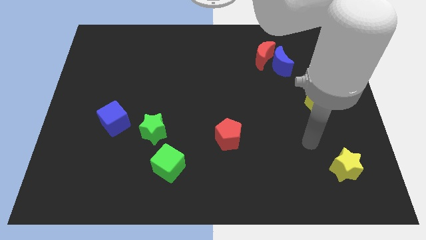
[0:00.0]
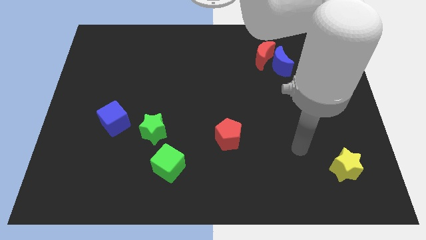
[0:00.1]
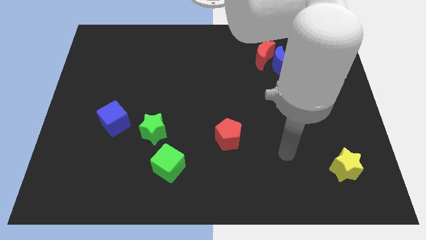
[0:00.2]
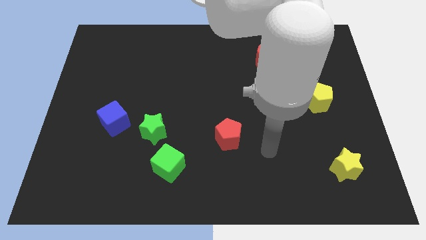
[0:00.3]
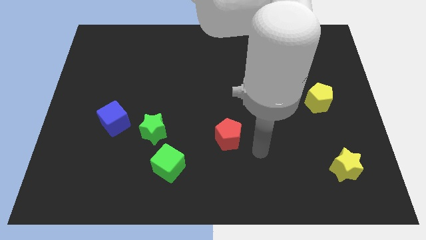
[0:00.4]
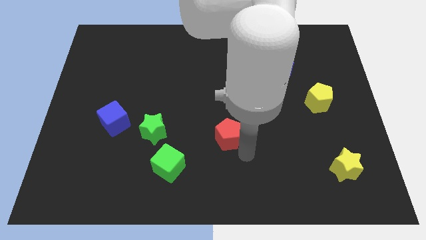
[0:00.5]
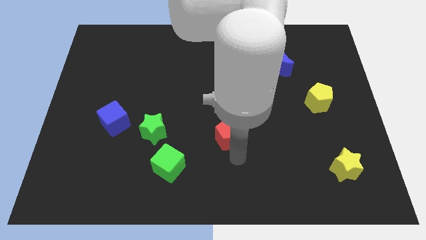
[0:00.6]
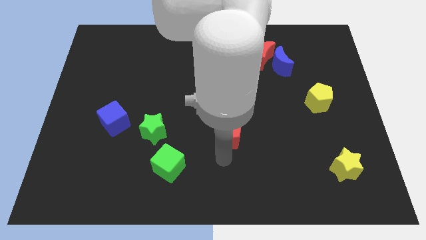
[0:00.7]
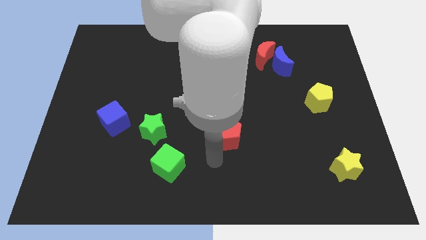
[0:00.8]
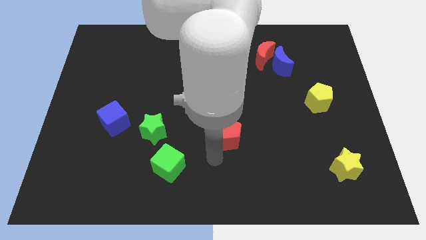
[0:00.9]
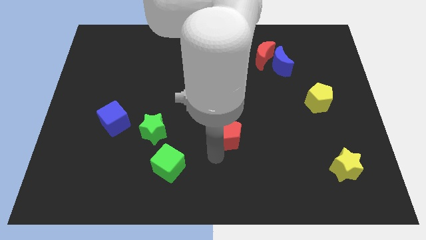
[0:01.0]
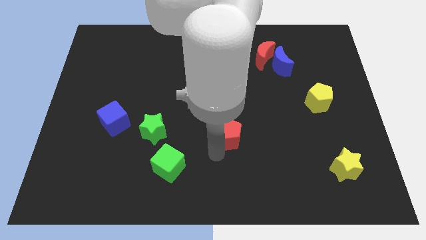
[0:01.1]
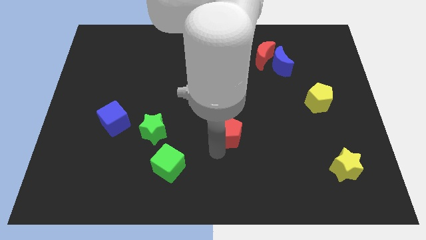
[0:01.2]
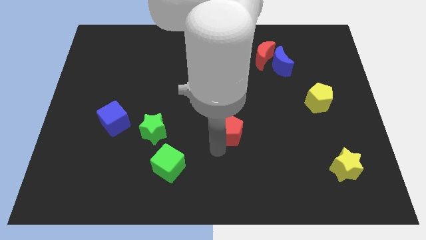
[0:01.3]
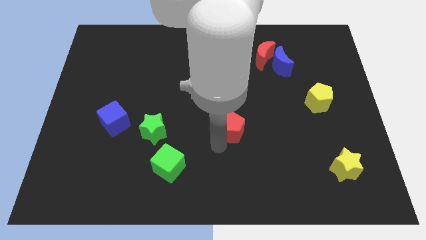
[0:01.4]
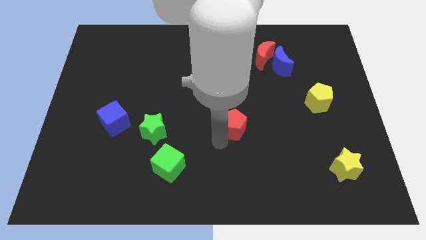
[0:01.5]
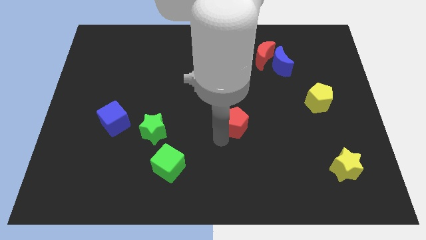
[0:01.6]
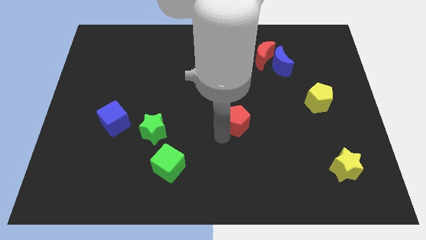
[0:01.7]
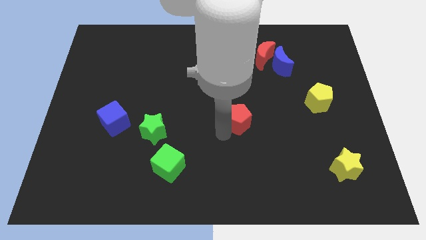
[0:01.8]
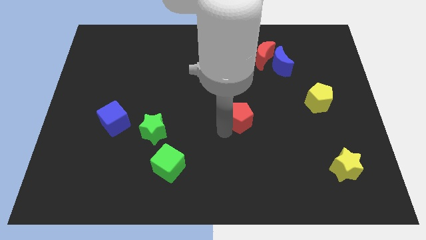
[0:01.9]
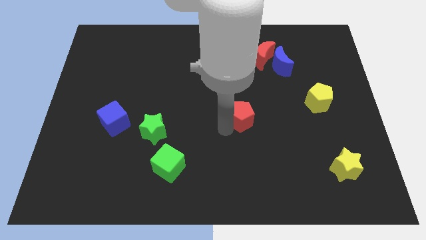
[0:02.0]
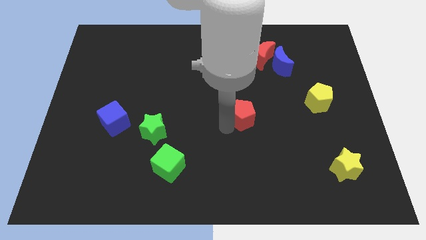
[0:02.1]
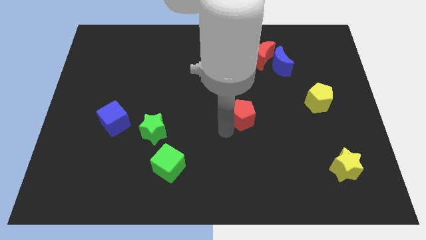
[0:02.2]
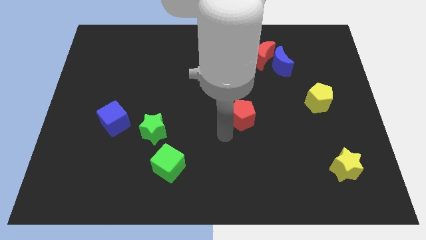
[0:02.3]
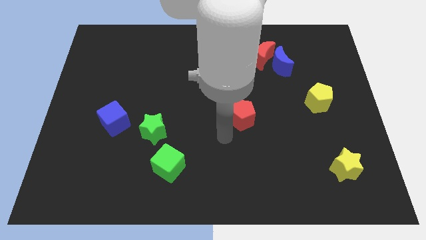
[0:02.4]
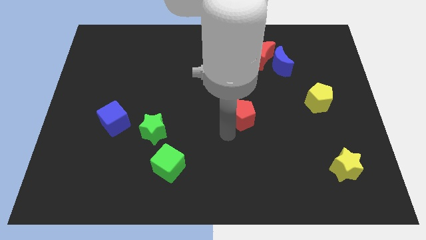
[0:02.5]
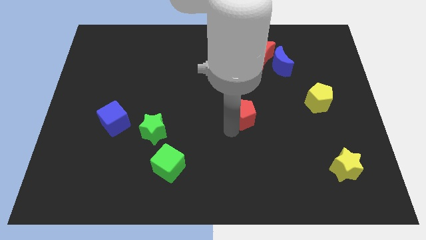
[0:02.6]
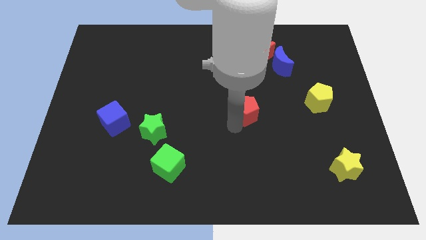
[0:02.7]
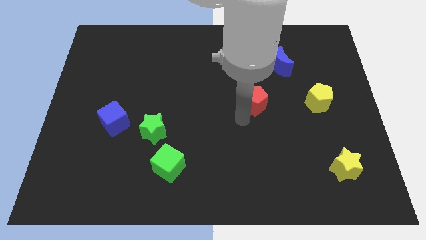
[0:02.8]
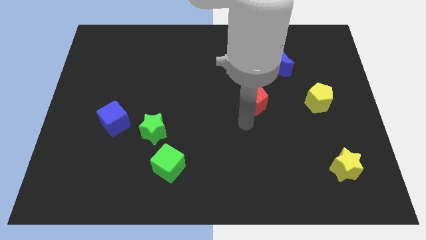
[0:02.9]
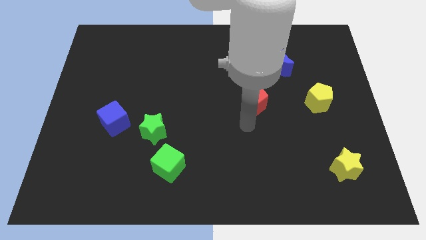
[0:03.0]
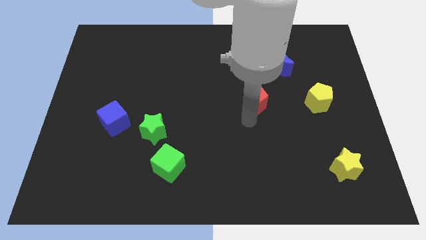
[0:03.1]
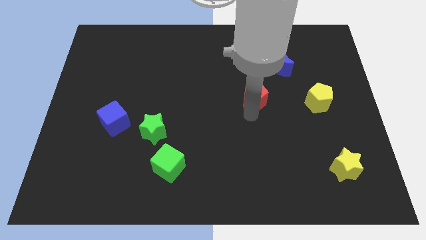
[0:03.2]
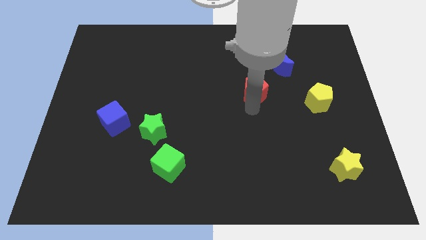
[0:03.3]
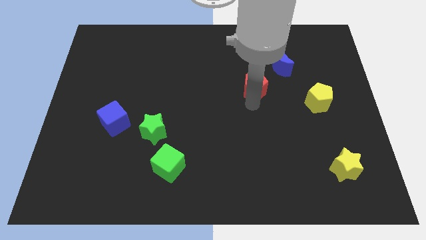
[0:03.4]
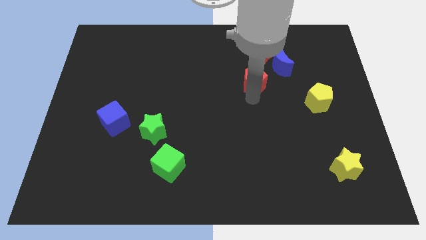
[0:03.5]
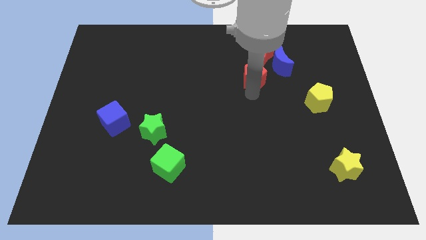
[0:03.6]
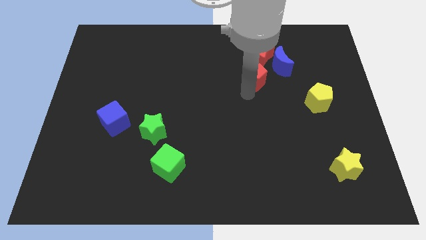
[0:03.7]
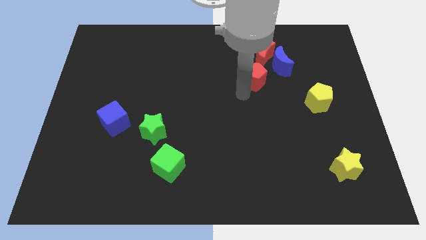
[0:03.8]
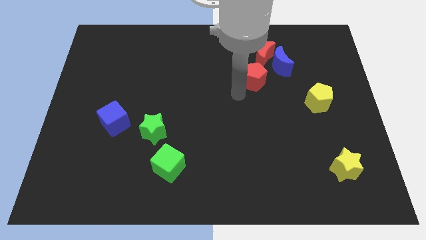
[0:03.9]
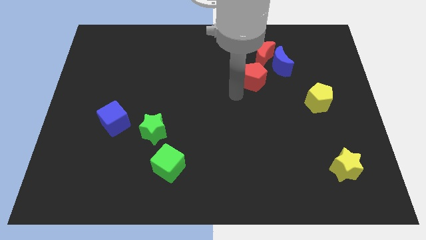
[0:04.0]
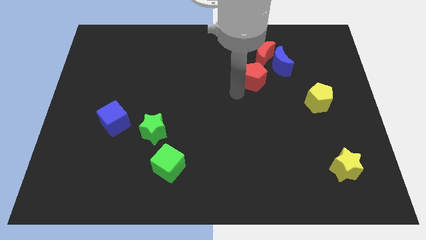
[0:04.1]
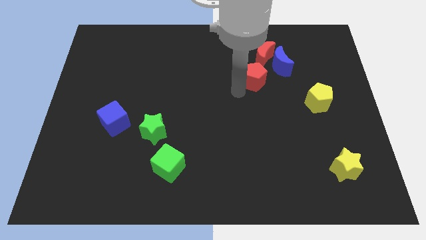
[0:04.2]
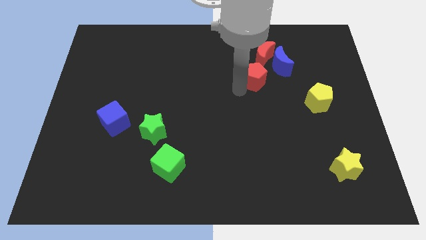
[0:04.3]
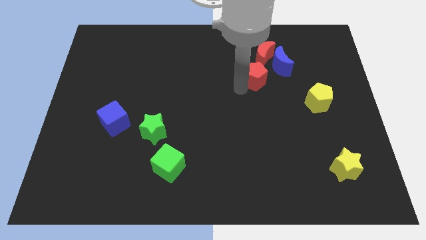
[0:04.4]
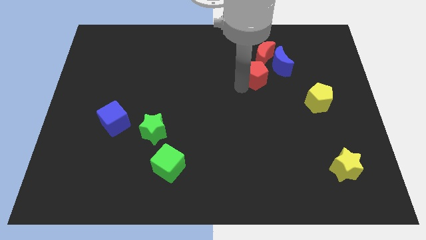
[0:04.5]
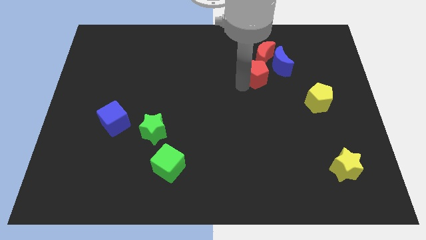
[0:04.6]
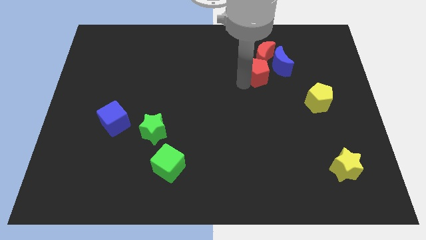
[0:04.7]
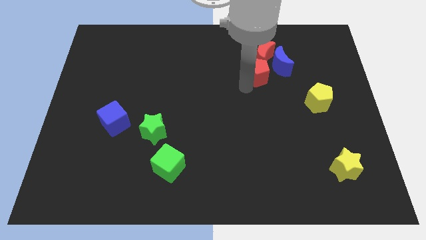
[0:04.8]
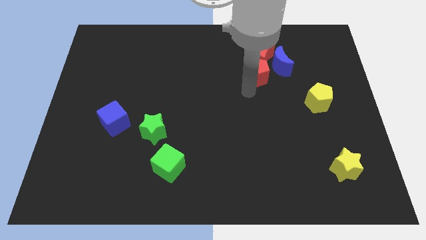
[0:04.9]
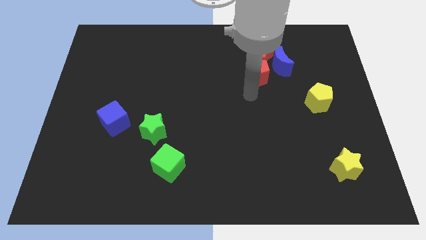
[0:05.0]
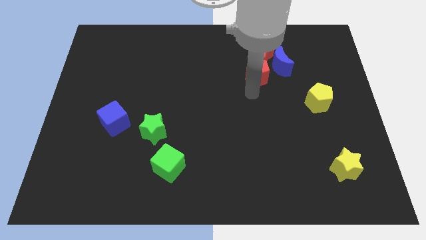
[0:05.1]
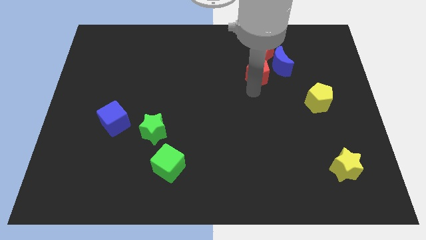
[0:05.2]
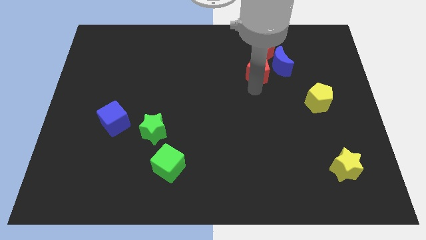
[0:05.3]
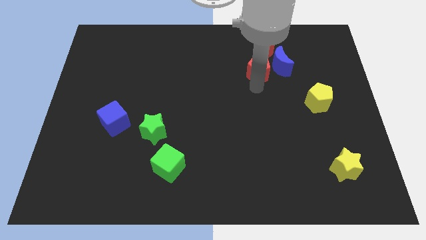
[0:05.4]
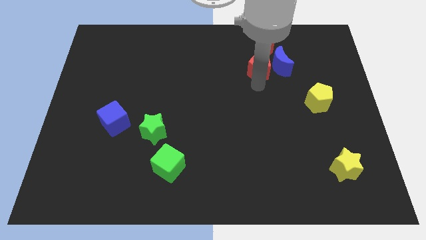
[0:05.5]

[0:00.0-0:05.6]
slide the red pentagon next to the red moon

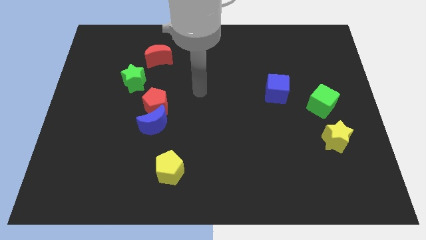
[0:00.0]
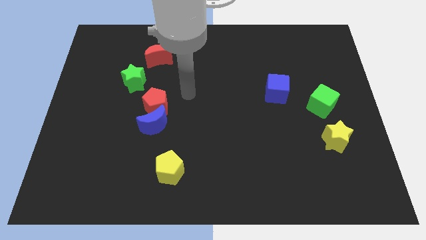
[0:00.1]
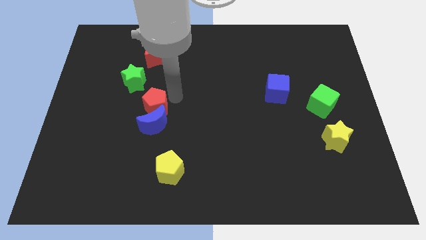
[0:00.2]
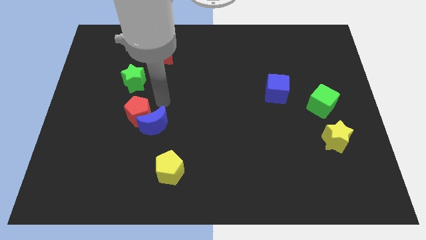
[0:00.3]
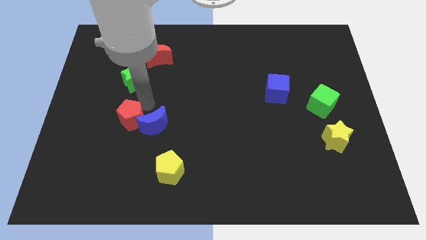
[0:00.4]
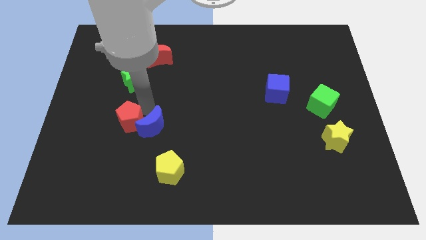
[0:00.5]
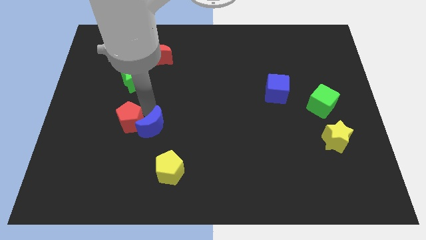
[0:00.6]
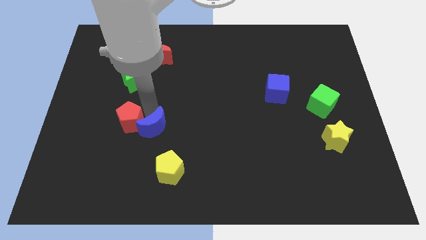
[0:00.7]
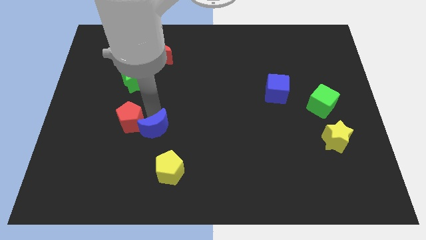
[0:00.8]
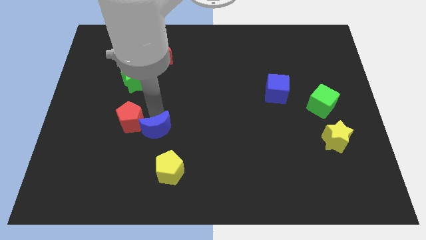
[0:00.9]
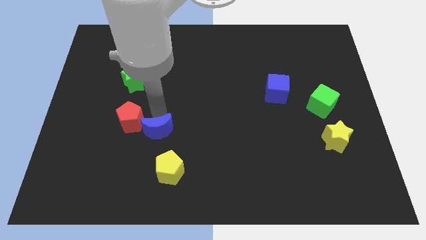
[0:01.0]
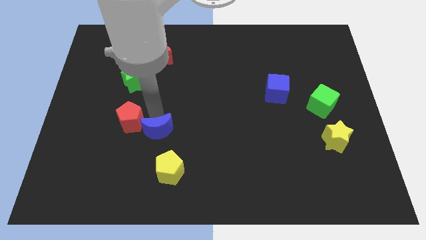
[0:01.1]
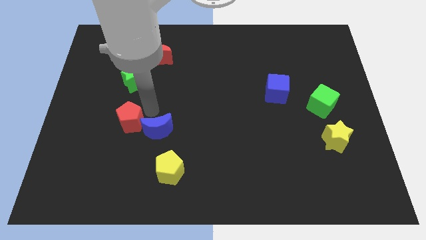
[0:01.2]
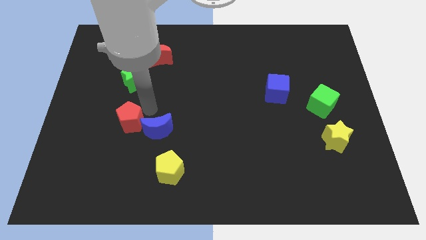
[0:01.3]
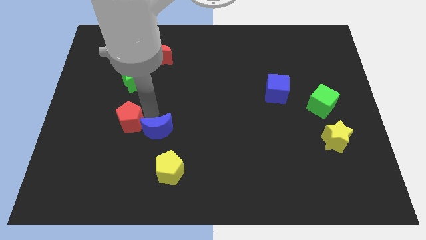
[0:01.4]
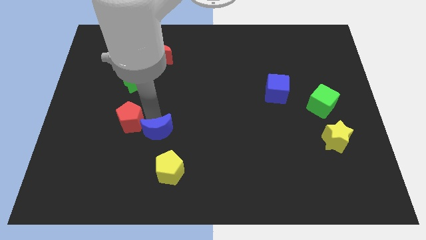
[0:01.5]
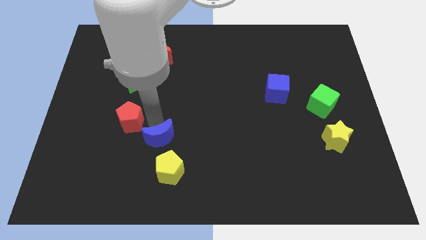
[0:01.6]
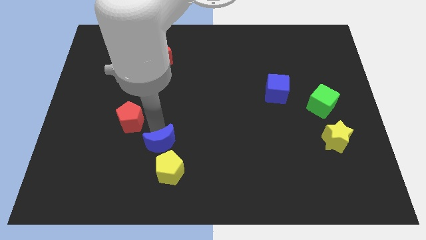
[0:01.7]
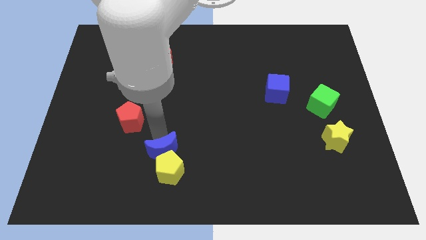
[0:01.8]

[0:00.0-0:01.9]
slide the blue moon to the yellow pentagon
